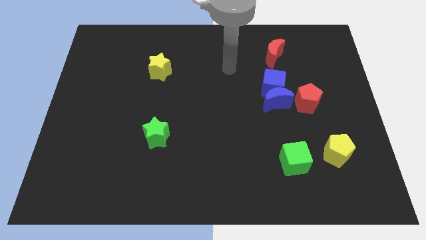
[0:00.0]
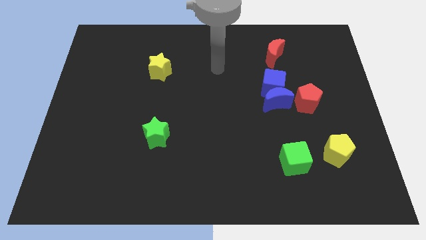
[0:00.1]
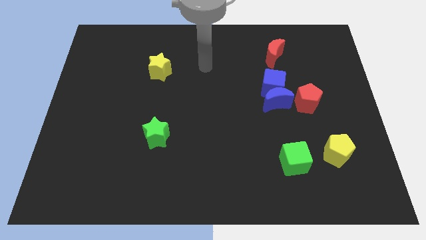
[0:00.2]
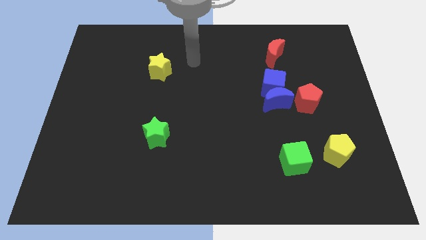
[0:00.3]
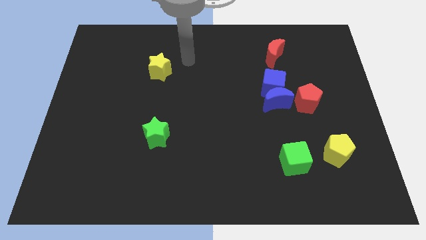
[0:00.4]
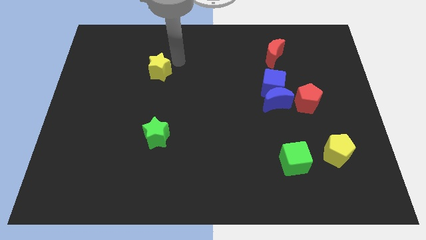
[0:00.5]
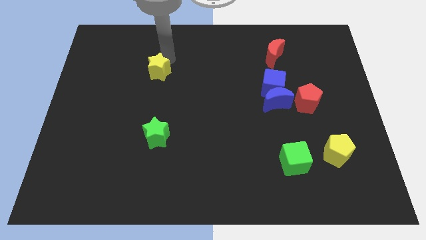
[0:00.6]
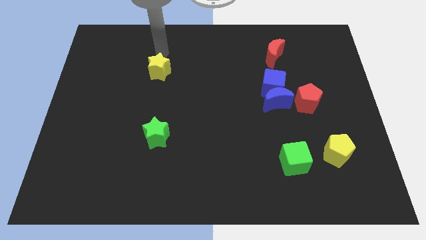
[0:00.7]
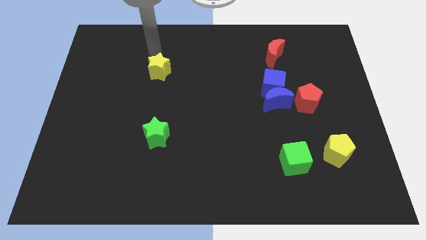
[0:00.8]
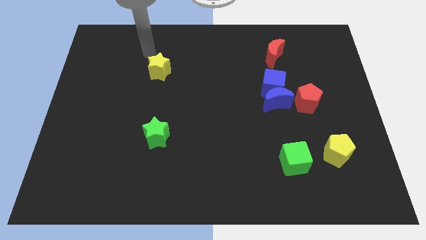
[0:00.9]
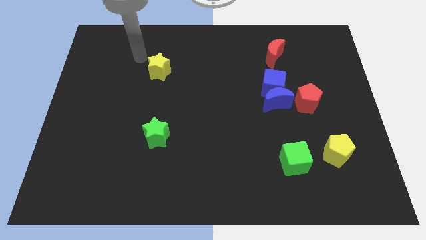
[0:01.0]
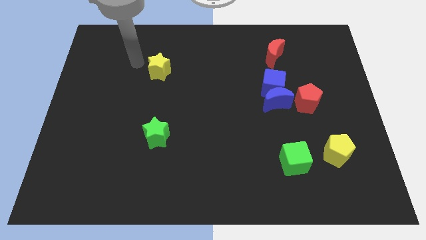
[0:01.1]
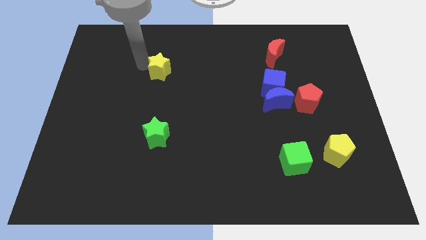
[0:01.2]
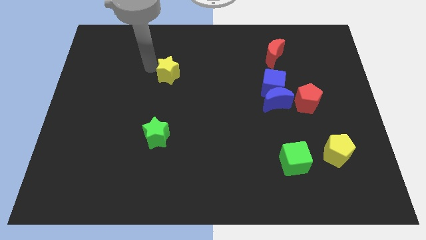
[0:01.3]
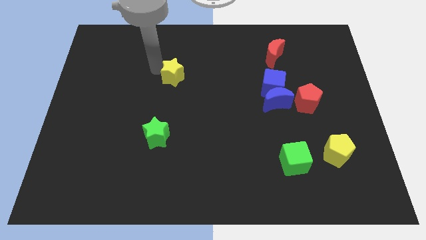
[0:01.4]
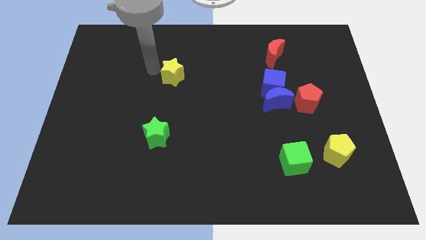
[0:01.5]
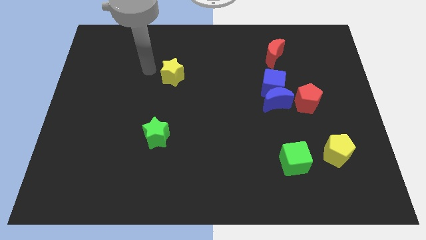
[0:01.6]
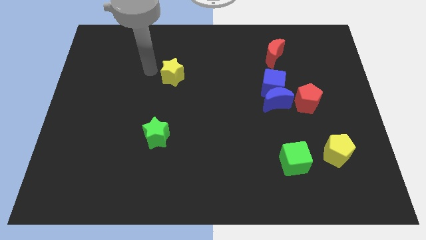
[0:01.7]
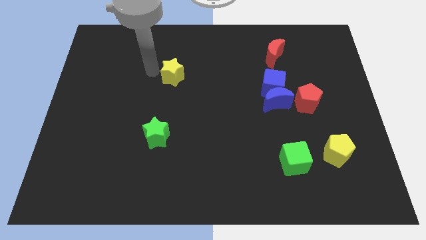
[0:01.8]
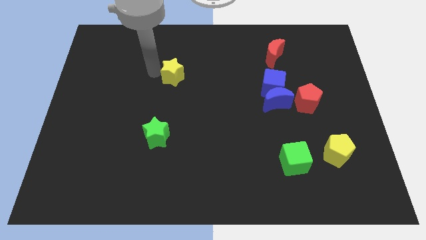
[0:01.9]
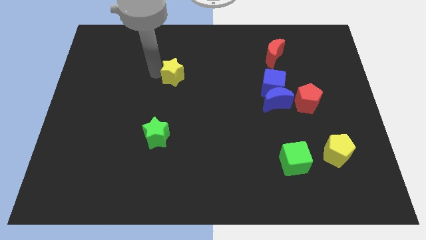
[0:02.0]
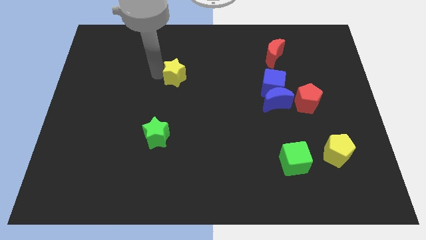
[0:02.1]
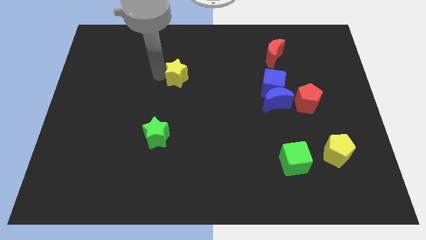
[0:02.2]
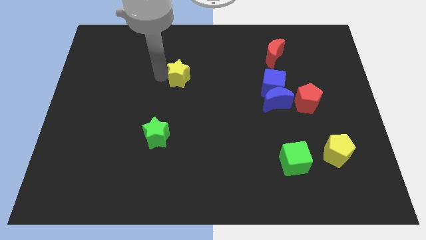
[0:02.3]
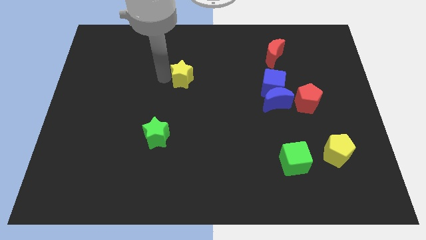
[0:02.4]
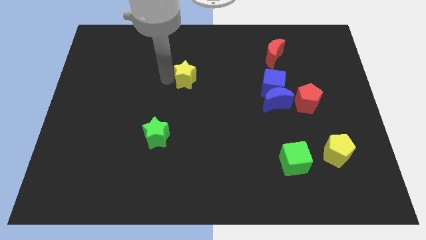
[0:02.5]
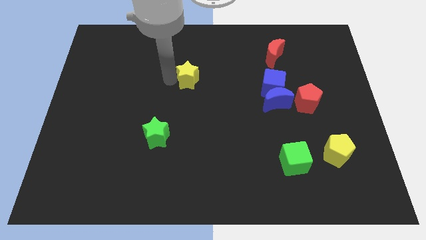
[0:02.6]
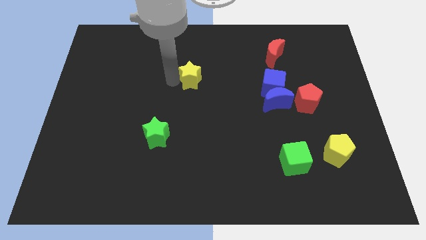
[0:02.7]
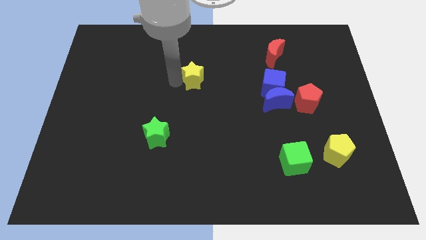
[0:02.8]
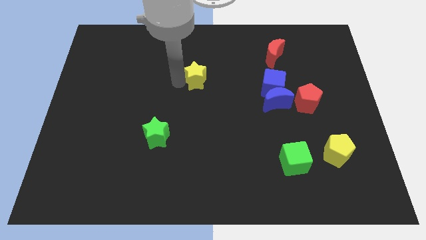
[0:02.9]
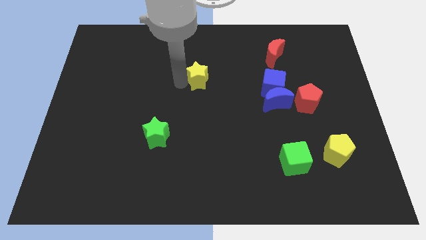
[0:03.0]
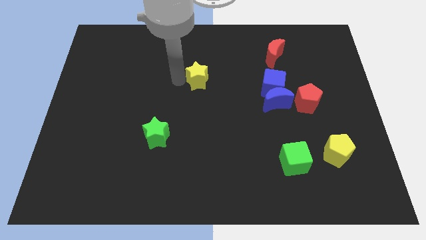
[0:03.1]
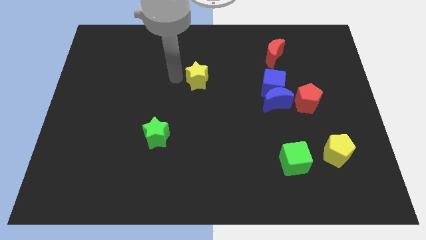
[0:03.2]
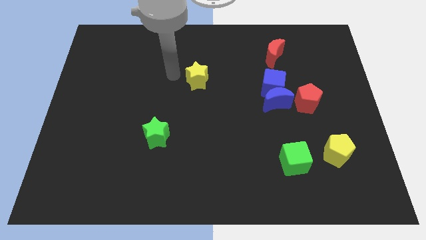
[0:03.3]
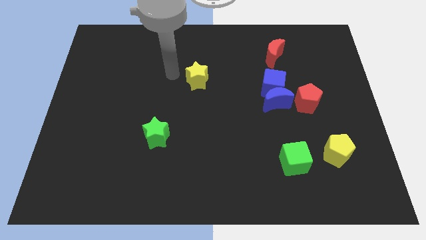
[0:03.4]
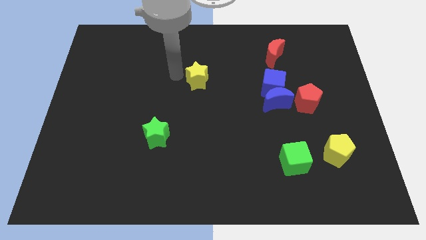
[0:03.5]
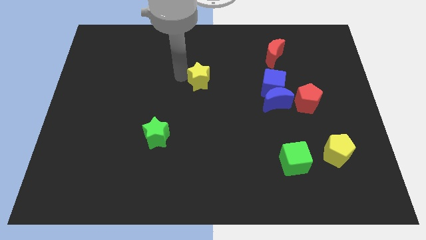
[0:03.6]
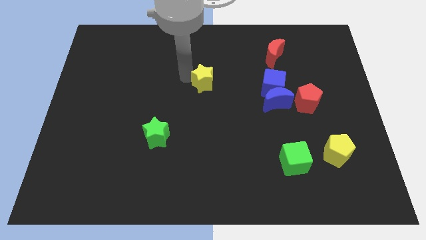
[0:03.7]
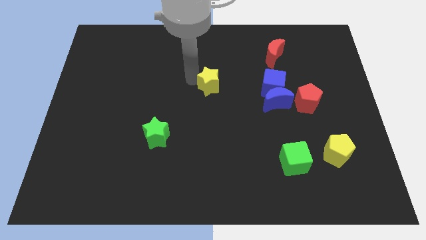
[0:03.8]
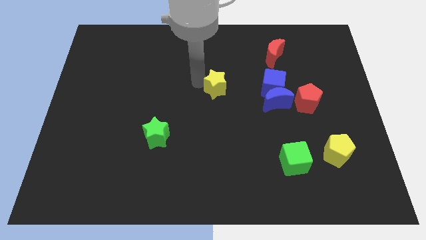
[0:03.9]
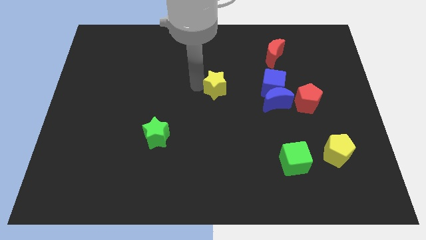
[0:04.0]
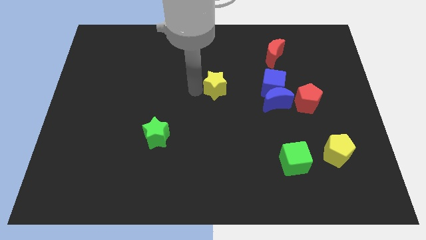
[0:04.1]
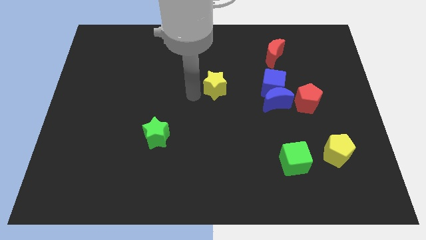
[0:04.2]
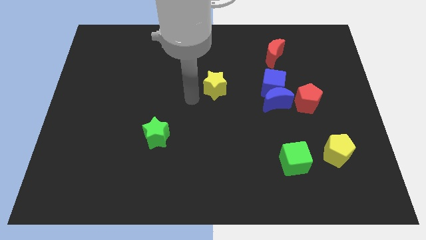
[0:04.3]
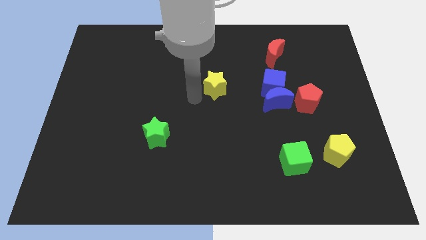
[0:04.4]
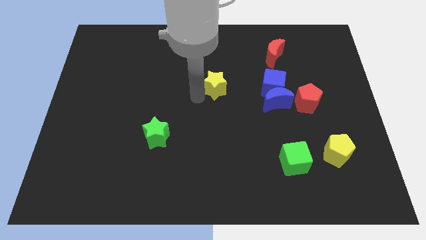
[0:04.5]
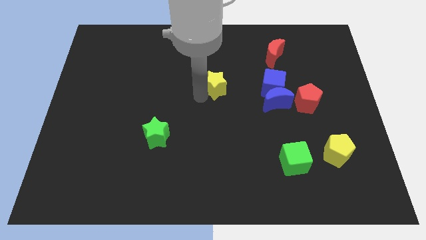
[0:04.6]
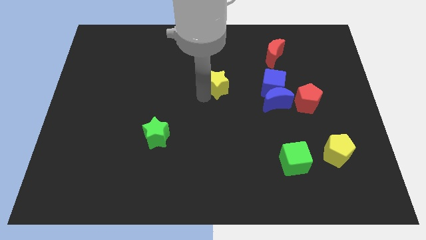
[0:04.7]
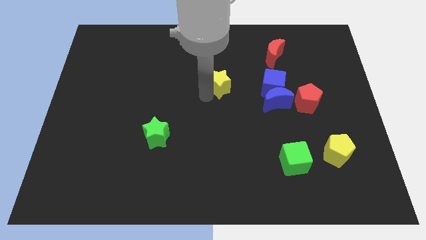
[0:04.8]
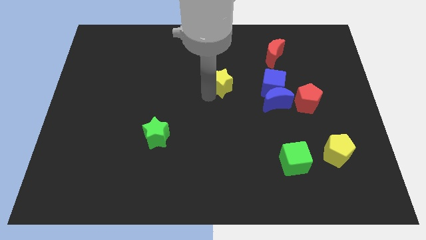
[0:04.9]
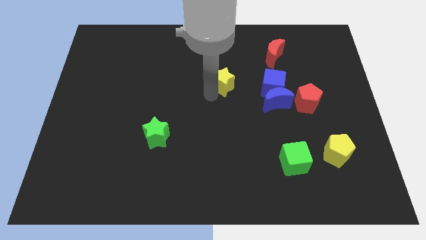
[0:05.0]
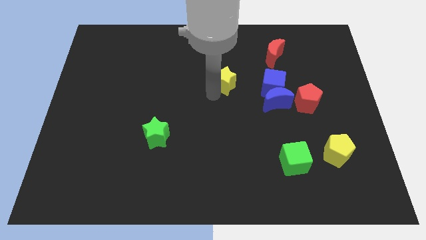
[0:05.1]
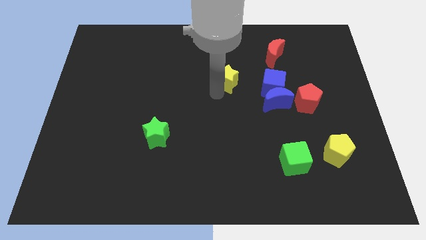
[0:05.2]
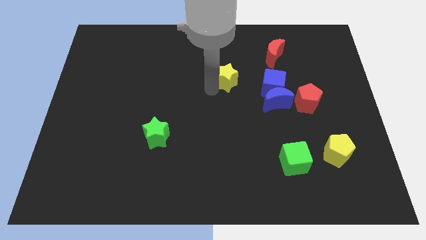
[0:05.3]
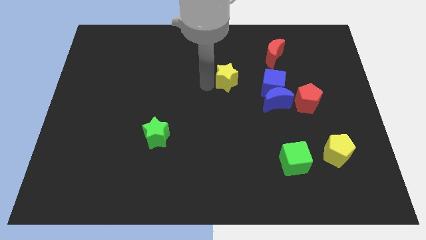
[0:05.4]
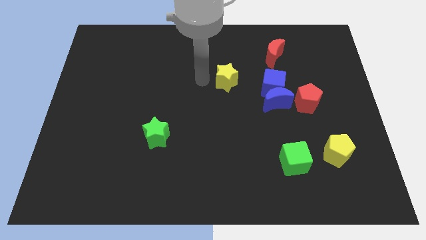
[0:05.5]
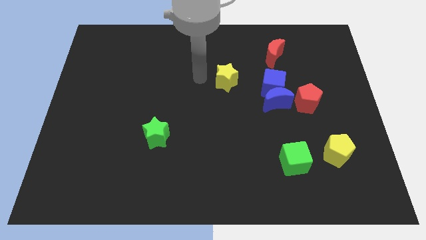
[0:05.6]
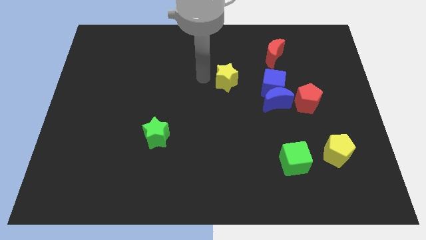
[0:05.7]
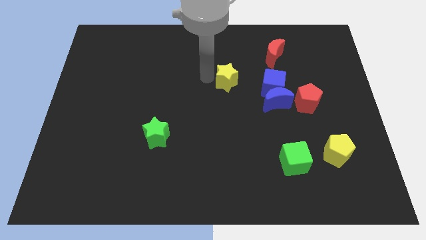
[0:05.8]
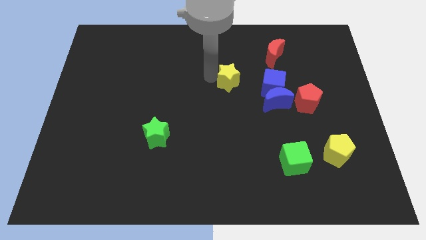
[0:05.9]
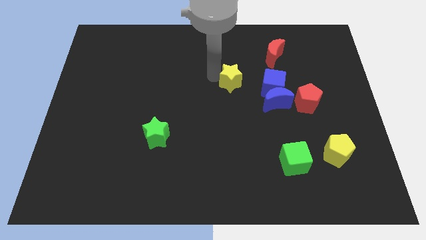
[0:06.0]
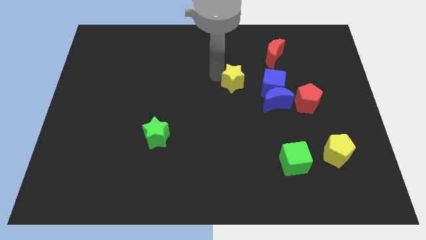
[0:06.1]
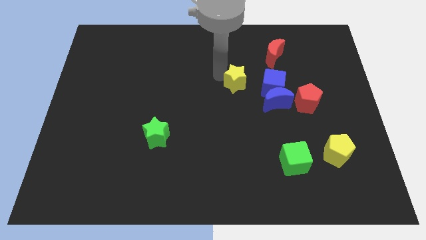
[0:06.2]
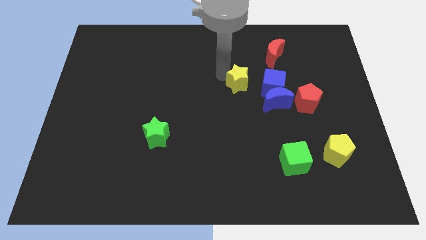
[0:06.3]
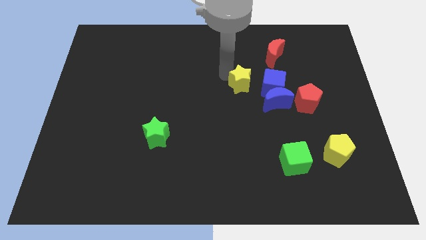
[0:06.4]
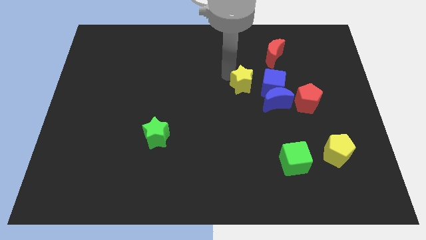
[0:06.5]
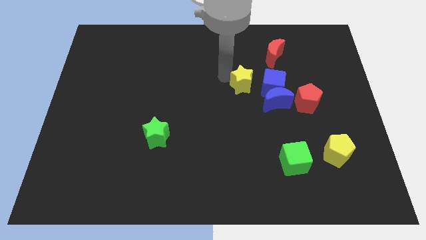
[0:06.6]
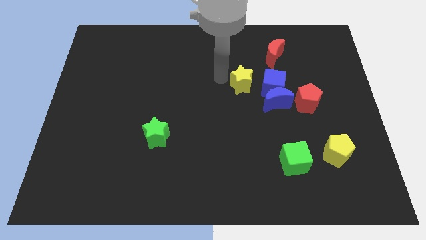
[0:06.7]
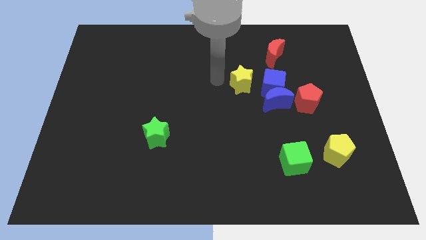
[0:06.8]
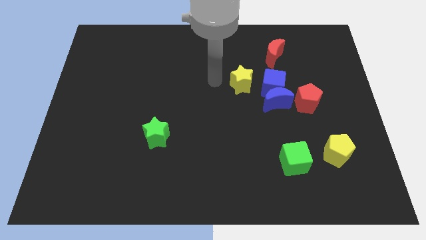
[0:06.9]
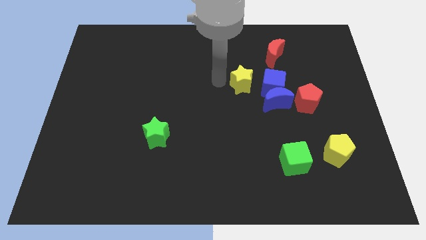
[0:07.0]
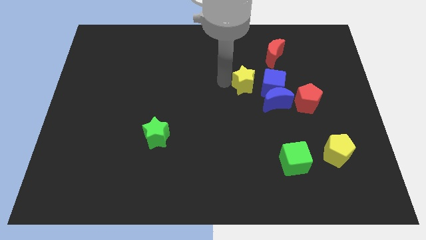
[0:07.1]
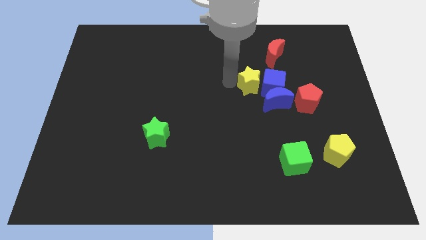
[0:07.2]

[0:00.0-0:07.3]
put the yellow star next to the blue cube
